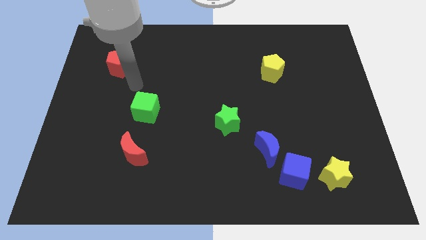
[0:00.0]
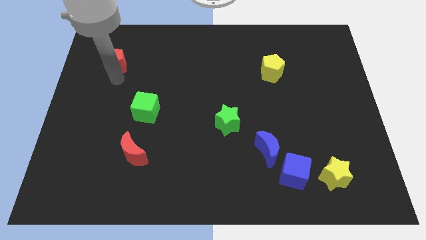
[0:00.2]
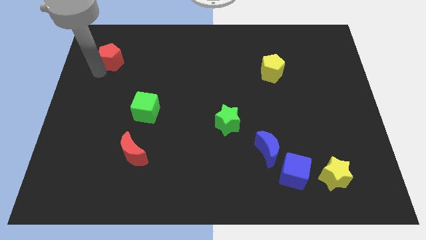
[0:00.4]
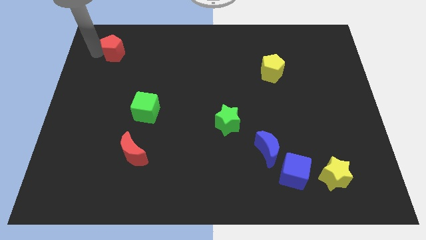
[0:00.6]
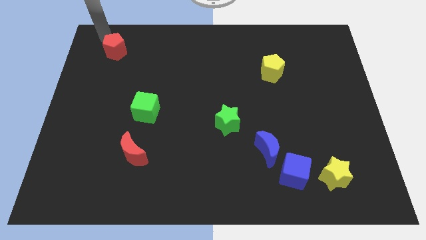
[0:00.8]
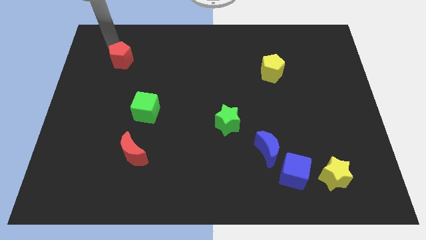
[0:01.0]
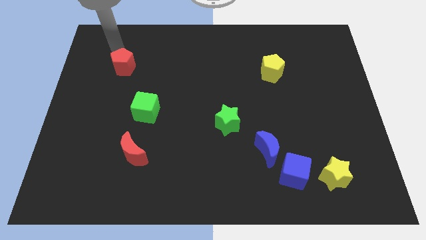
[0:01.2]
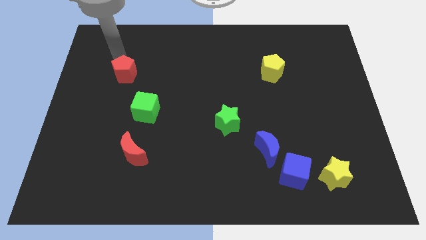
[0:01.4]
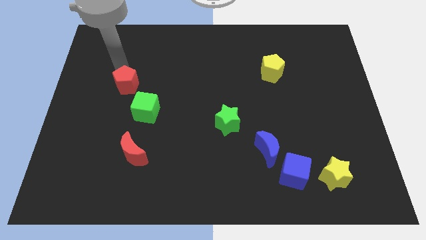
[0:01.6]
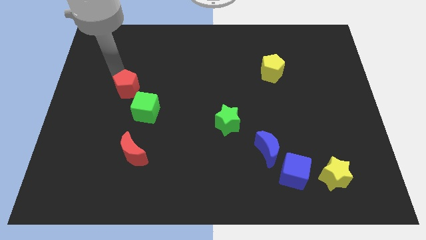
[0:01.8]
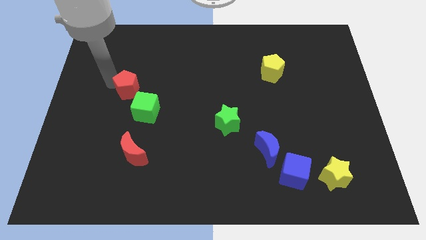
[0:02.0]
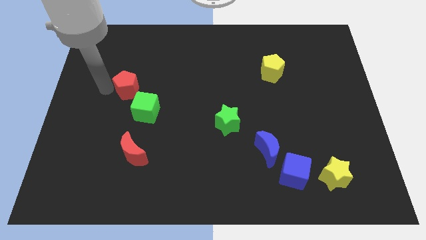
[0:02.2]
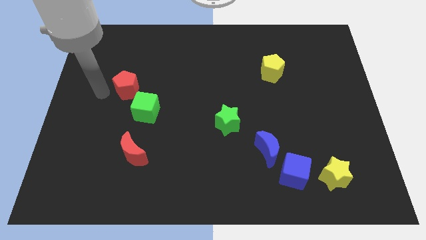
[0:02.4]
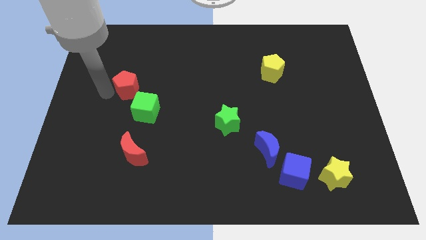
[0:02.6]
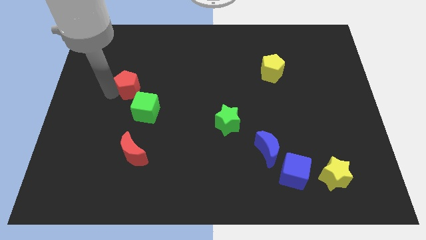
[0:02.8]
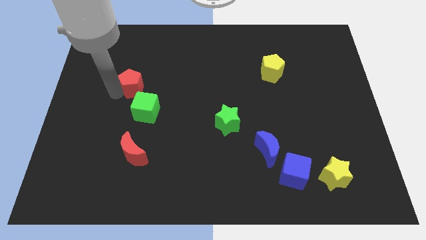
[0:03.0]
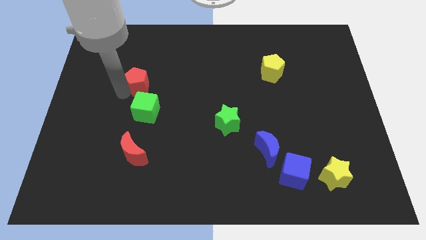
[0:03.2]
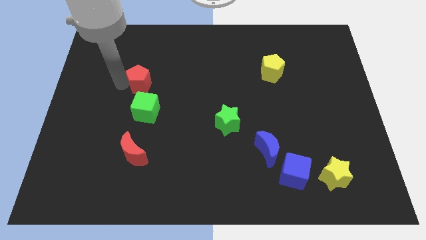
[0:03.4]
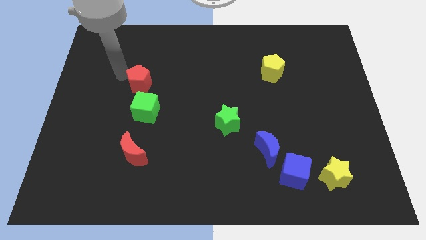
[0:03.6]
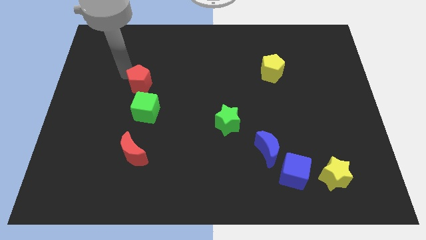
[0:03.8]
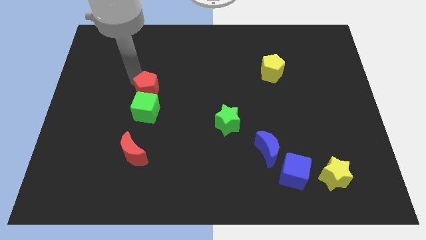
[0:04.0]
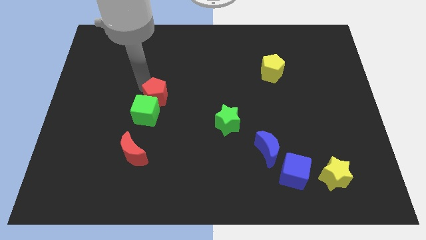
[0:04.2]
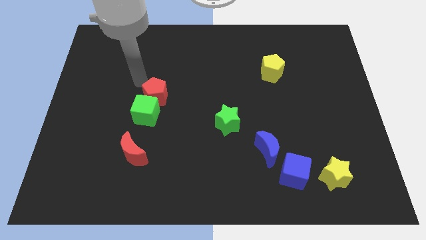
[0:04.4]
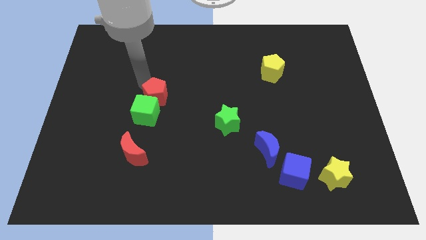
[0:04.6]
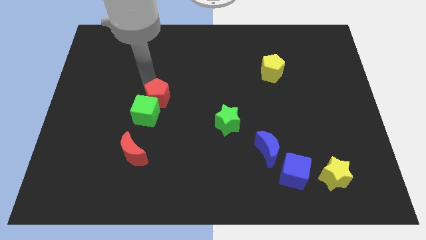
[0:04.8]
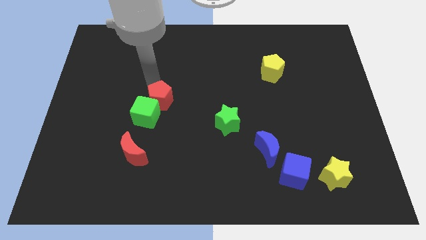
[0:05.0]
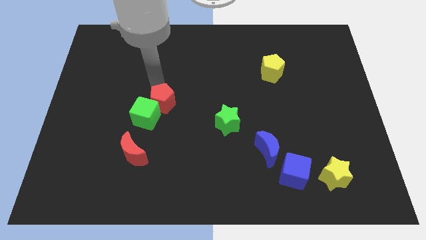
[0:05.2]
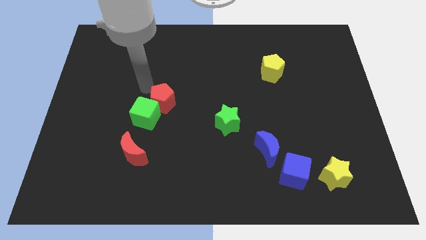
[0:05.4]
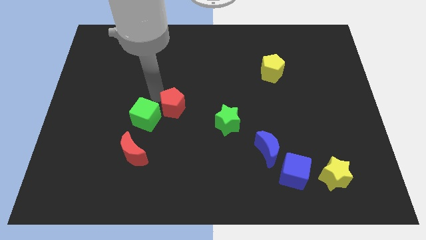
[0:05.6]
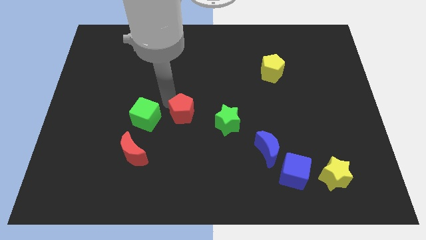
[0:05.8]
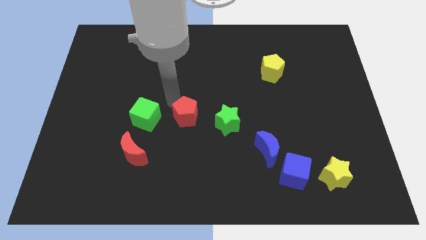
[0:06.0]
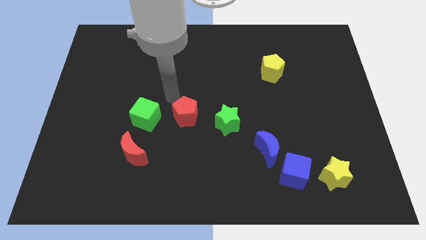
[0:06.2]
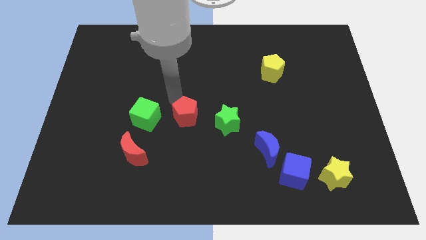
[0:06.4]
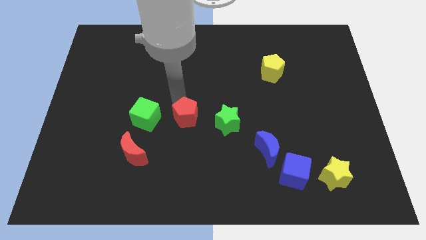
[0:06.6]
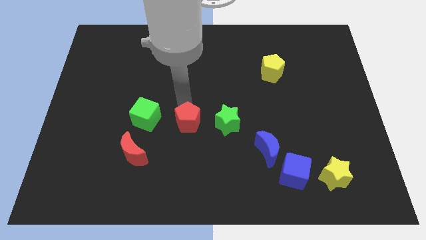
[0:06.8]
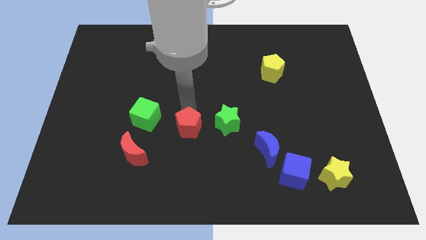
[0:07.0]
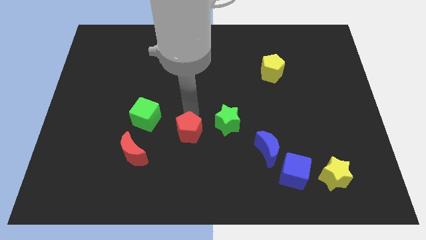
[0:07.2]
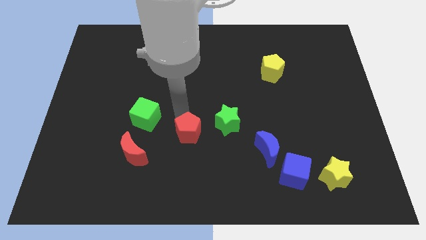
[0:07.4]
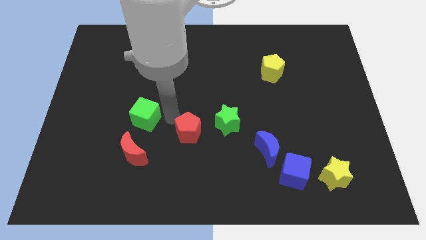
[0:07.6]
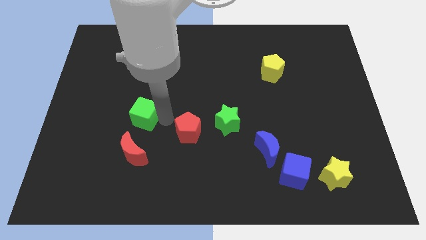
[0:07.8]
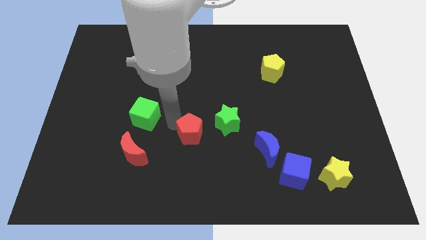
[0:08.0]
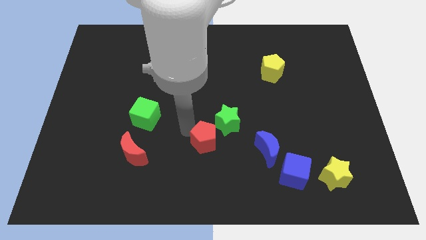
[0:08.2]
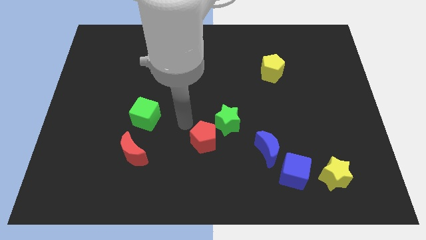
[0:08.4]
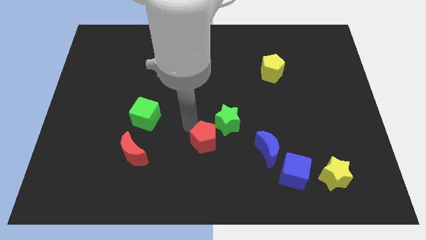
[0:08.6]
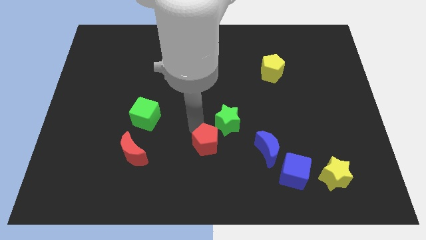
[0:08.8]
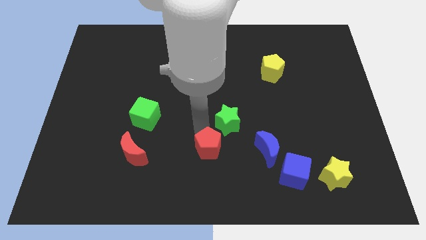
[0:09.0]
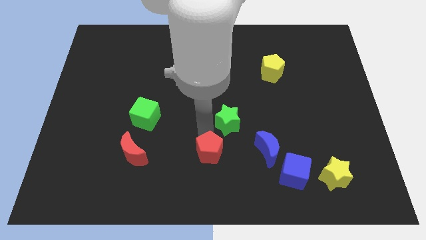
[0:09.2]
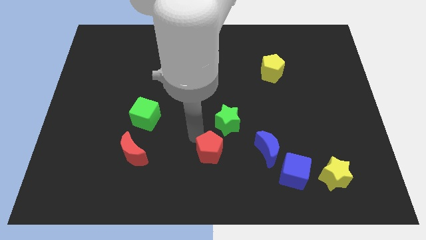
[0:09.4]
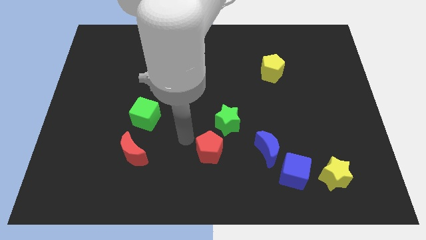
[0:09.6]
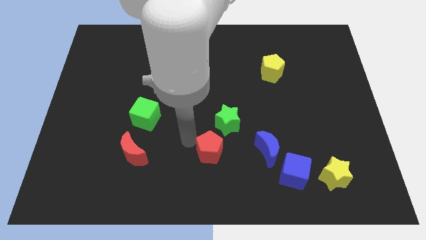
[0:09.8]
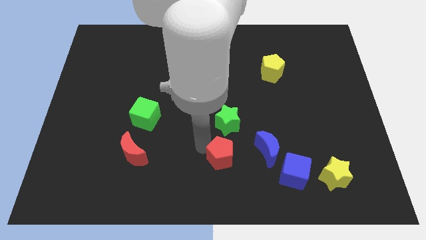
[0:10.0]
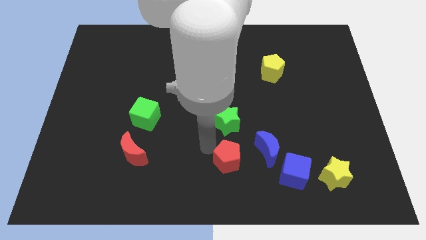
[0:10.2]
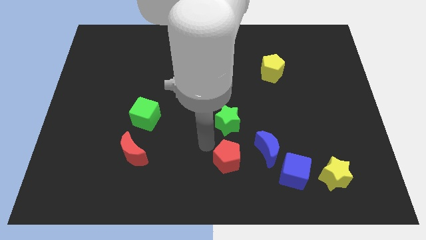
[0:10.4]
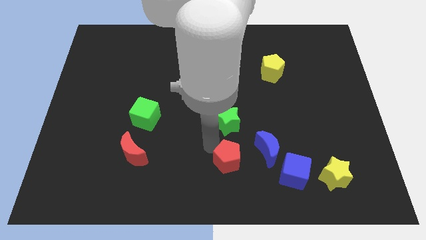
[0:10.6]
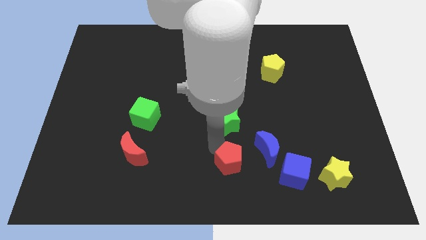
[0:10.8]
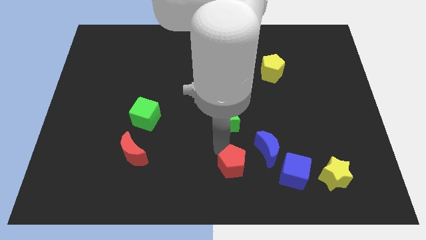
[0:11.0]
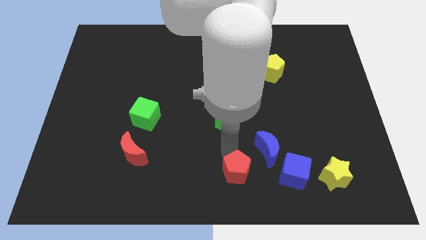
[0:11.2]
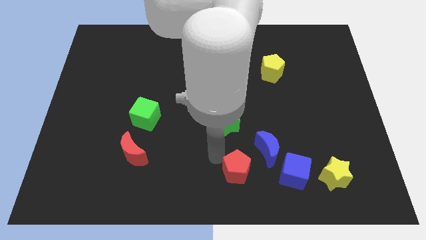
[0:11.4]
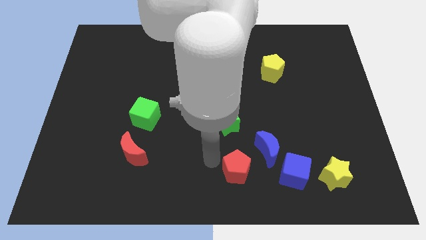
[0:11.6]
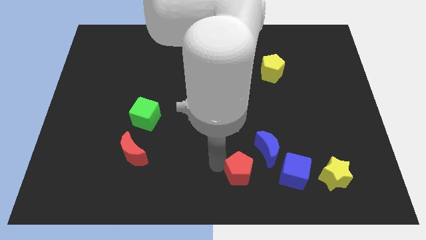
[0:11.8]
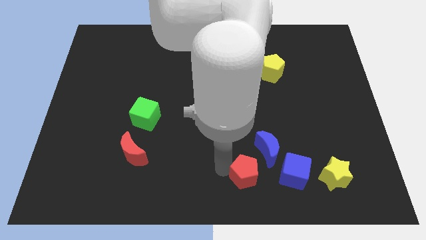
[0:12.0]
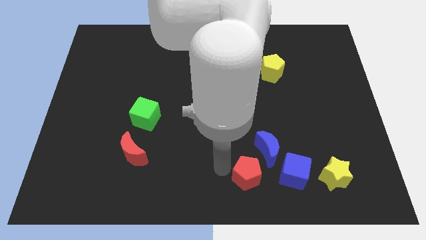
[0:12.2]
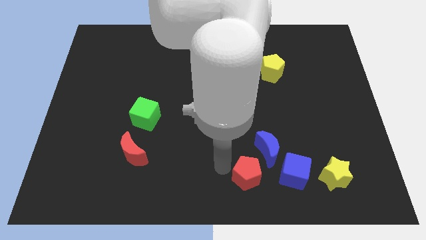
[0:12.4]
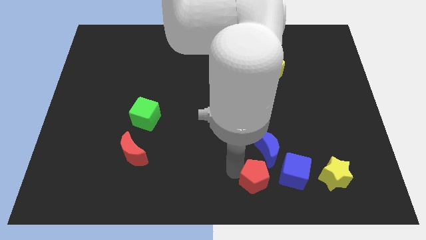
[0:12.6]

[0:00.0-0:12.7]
push the red pentagon to the left of the yellow star

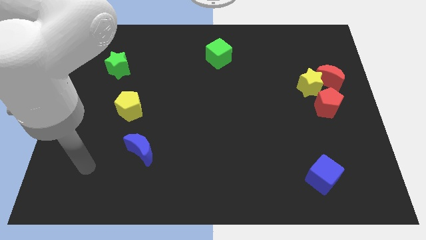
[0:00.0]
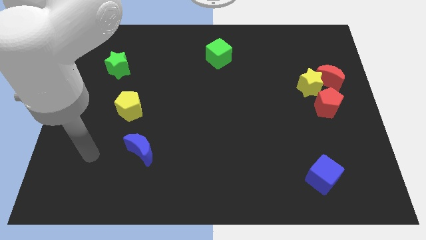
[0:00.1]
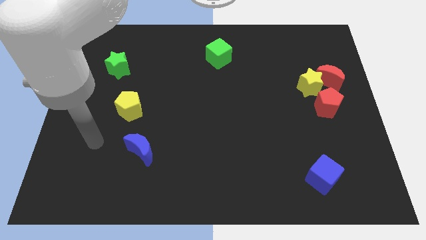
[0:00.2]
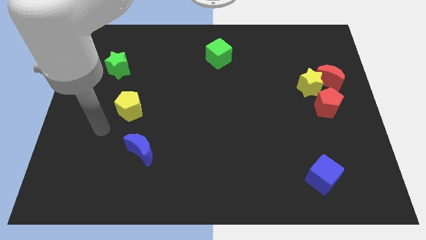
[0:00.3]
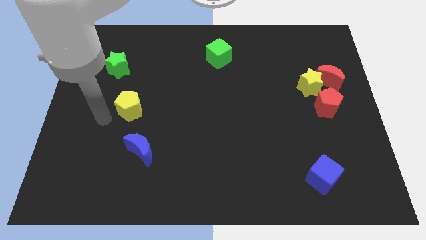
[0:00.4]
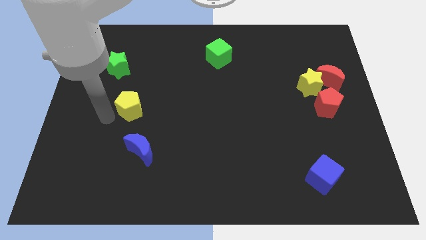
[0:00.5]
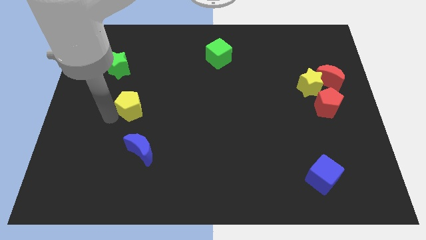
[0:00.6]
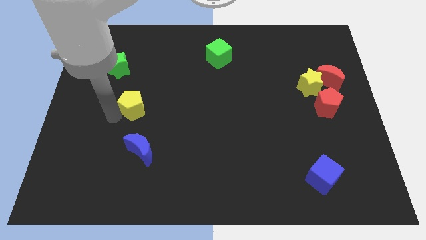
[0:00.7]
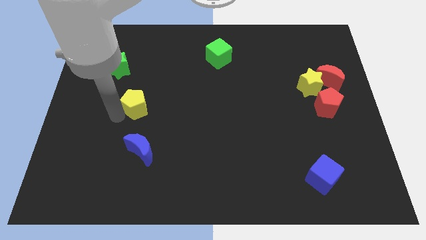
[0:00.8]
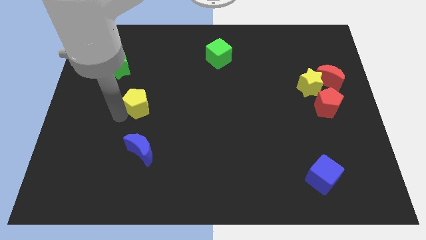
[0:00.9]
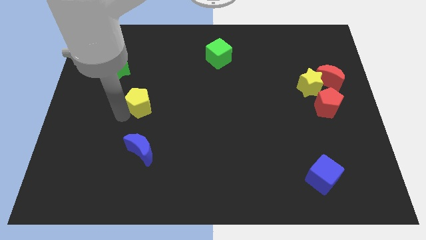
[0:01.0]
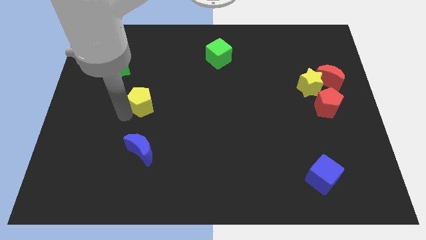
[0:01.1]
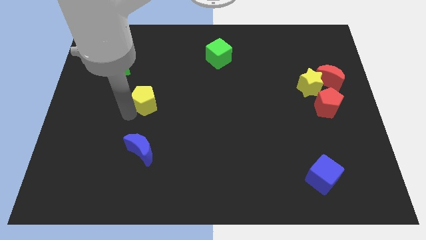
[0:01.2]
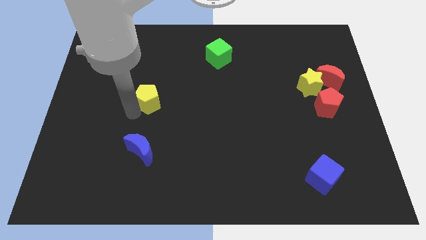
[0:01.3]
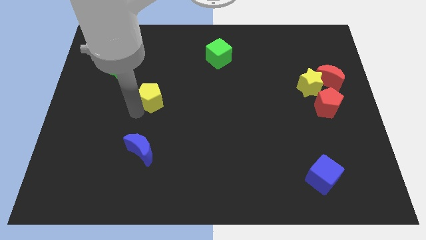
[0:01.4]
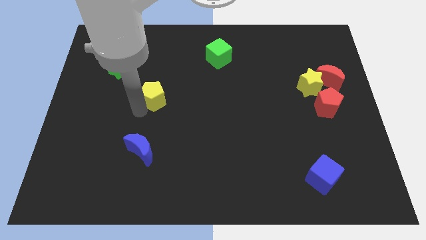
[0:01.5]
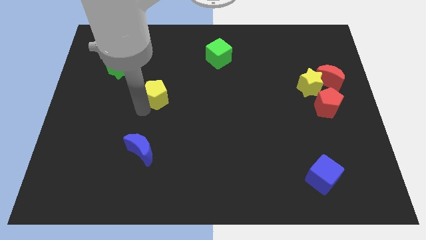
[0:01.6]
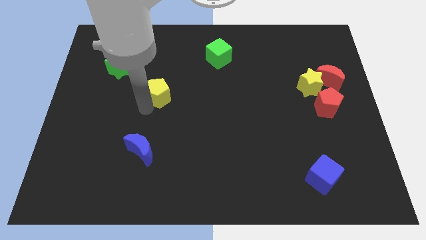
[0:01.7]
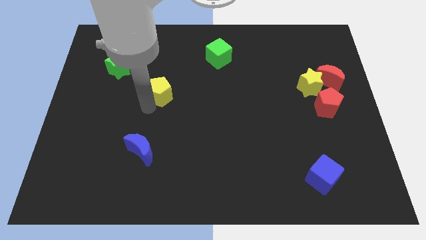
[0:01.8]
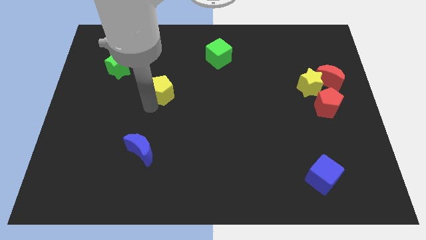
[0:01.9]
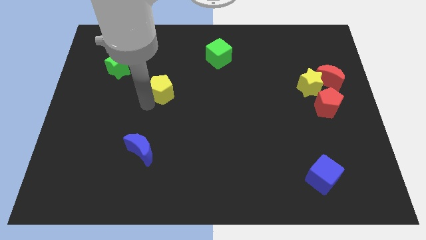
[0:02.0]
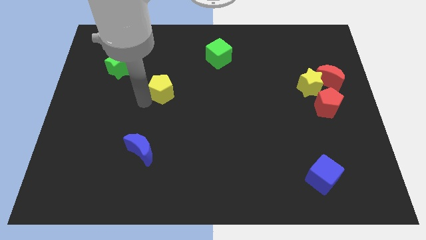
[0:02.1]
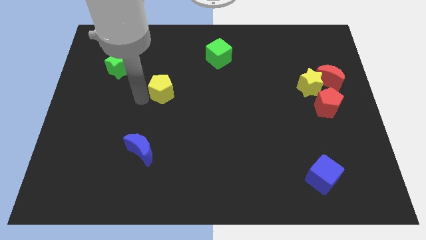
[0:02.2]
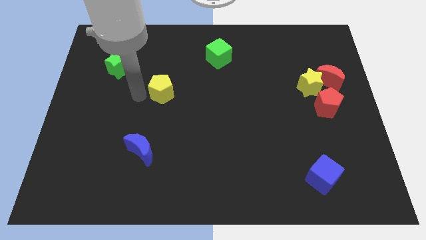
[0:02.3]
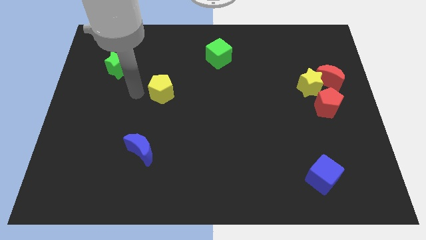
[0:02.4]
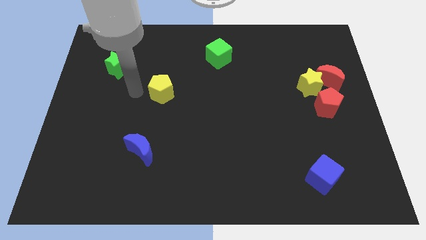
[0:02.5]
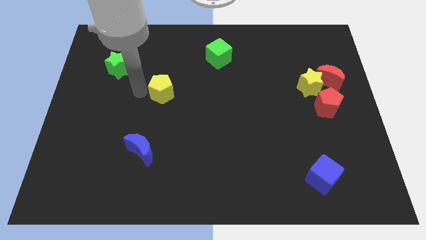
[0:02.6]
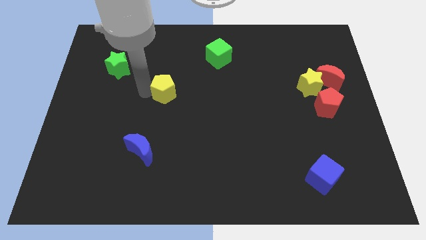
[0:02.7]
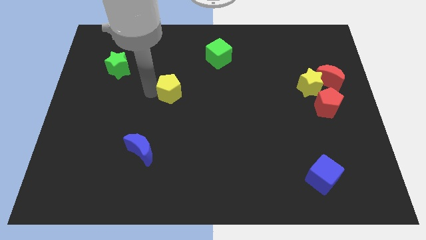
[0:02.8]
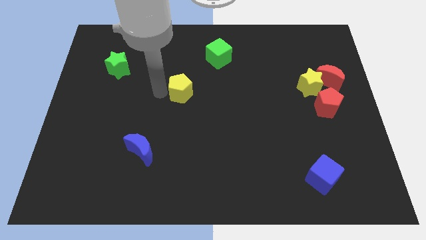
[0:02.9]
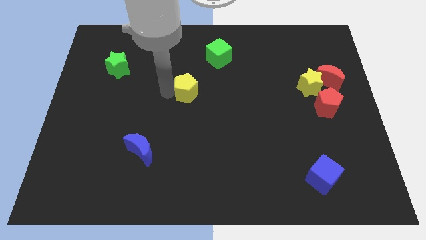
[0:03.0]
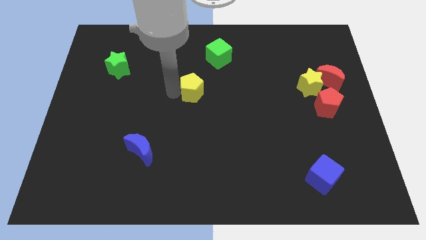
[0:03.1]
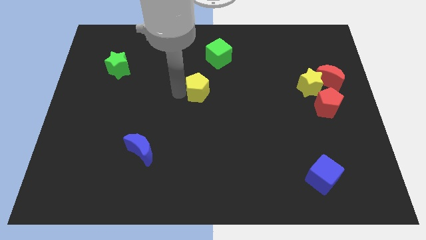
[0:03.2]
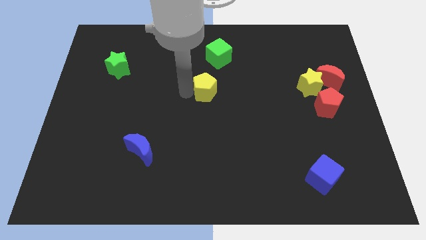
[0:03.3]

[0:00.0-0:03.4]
move the yellow pentagon to the bottom side of the green cube
